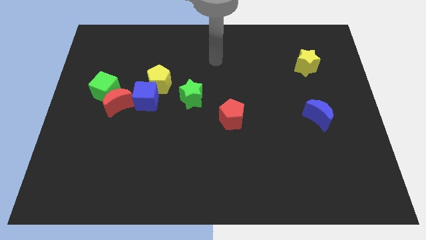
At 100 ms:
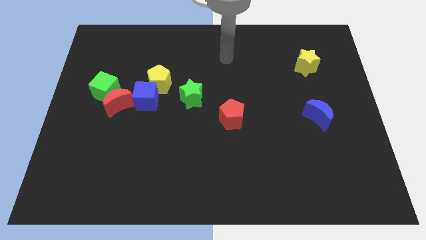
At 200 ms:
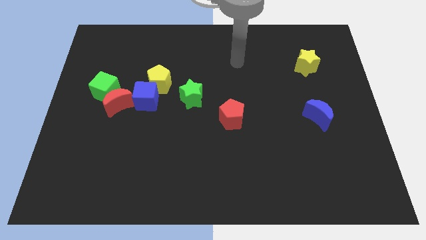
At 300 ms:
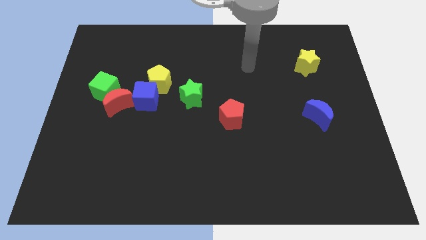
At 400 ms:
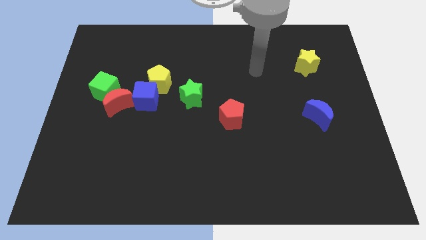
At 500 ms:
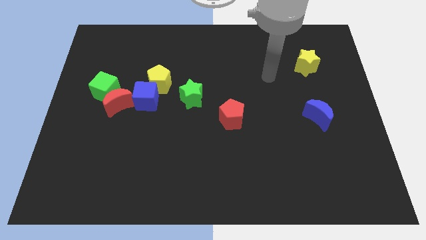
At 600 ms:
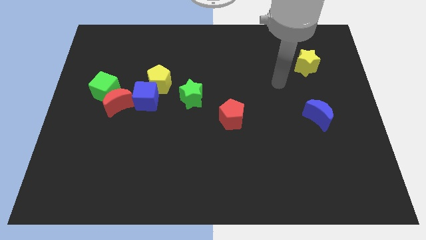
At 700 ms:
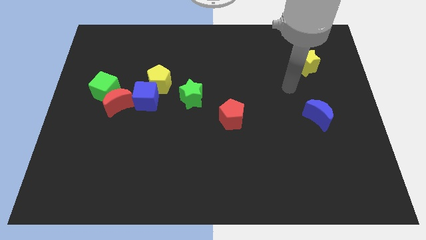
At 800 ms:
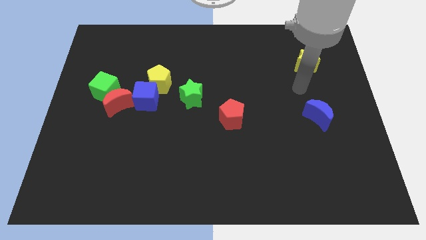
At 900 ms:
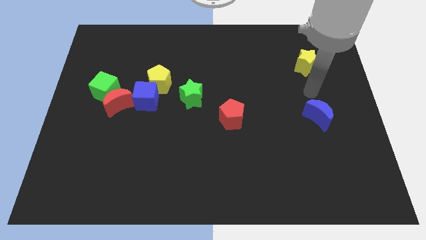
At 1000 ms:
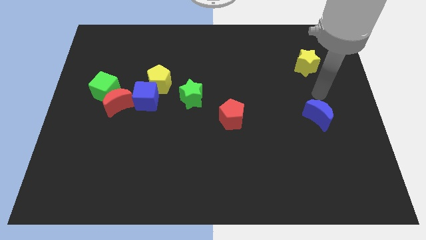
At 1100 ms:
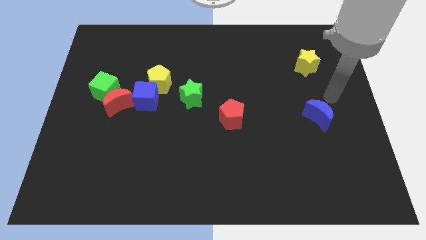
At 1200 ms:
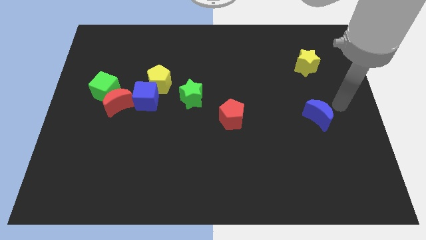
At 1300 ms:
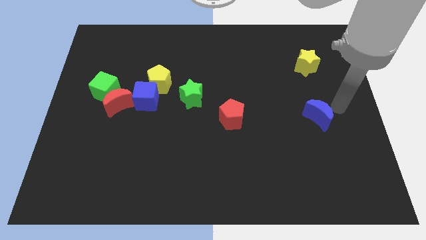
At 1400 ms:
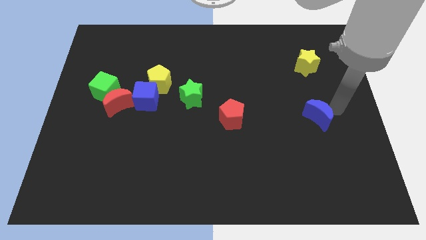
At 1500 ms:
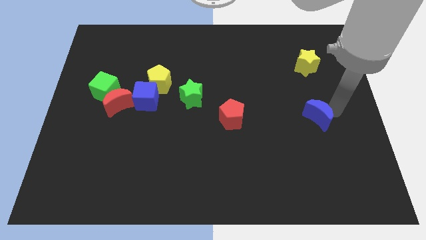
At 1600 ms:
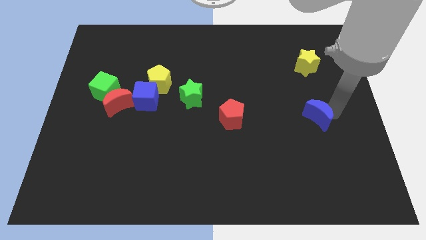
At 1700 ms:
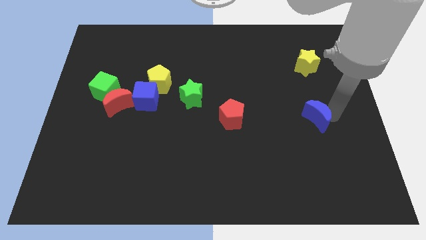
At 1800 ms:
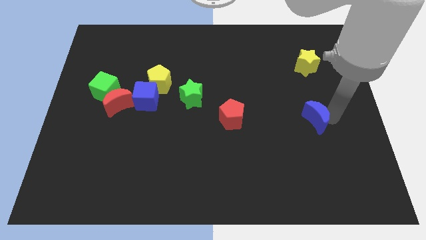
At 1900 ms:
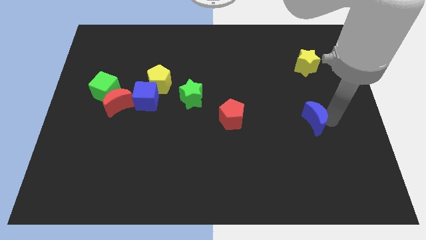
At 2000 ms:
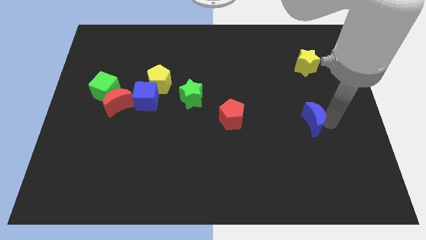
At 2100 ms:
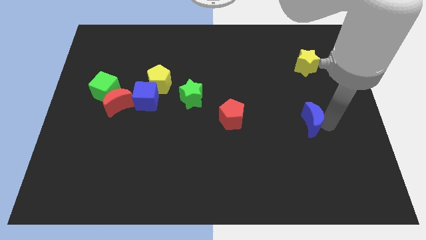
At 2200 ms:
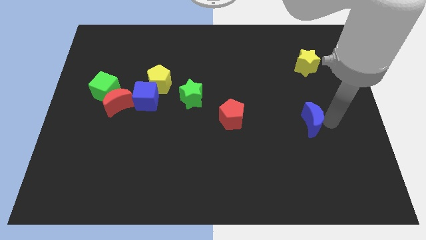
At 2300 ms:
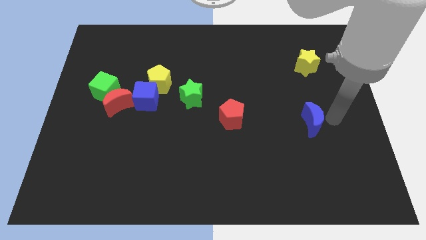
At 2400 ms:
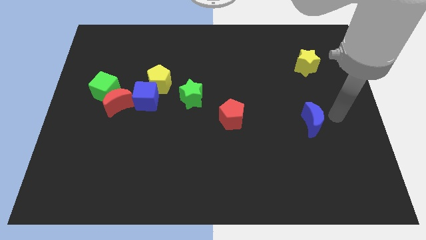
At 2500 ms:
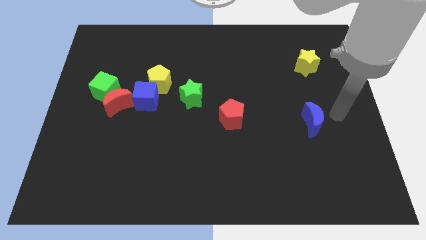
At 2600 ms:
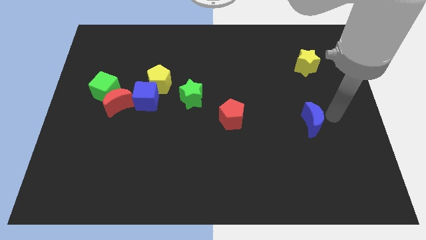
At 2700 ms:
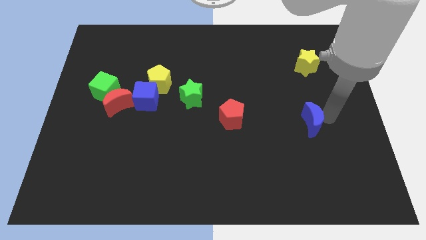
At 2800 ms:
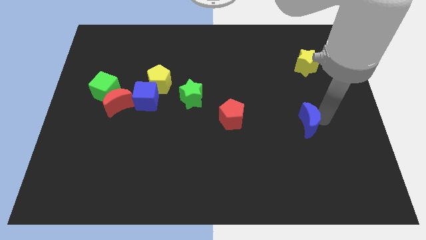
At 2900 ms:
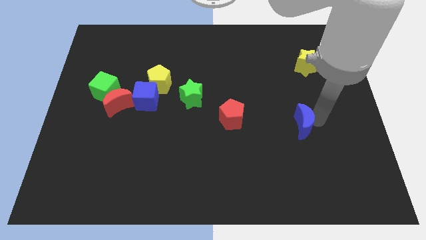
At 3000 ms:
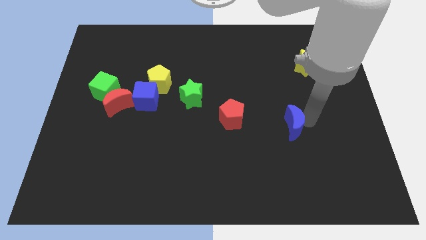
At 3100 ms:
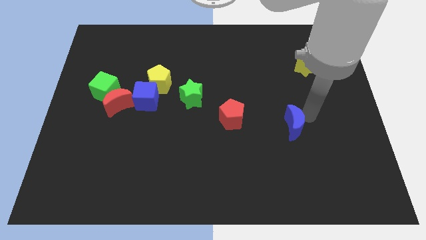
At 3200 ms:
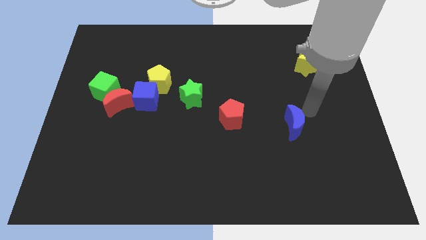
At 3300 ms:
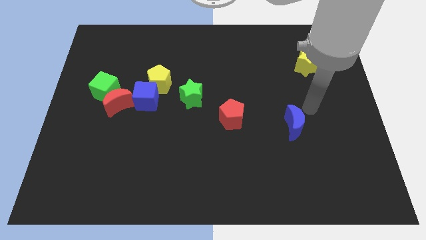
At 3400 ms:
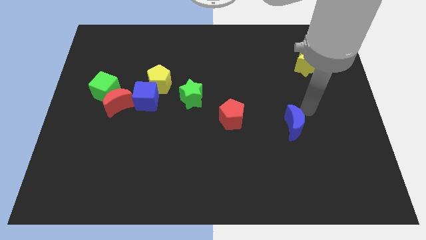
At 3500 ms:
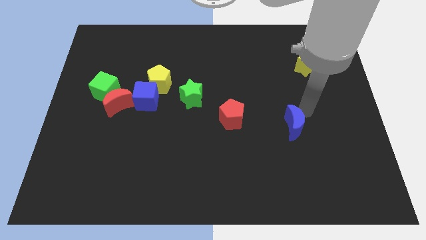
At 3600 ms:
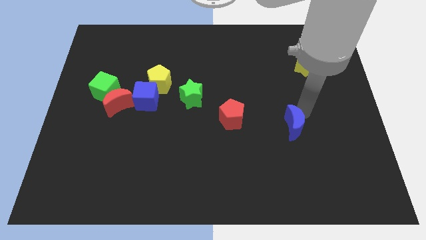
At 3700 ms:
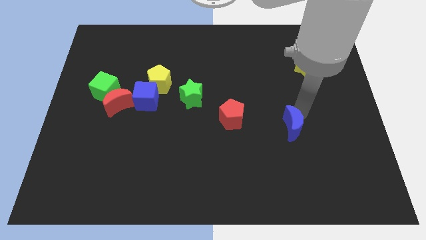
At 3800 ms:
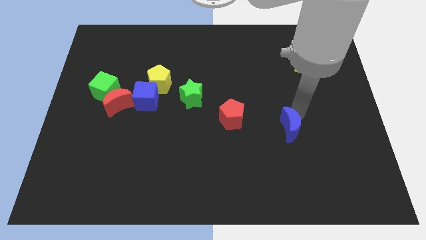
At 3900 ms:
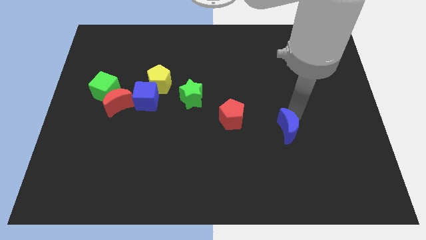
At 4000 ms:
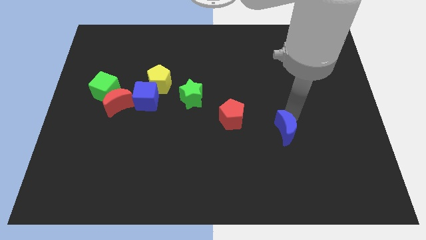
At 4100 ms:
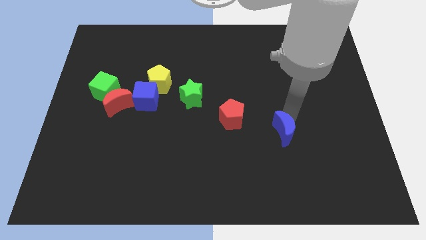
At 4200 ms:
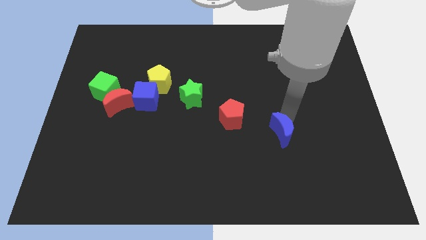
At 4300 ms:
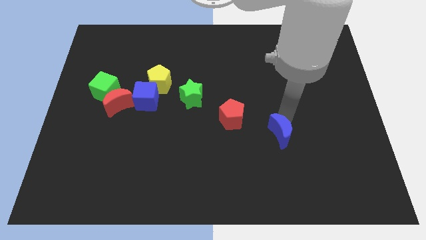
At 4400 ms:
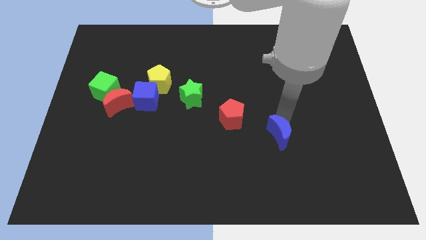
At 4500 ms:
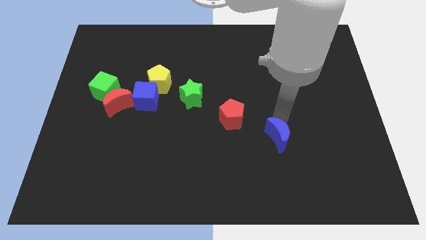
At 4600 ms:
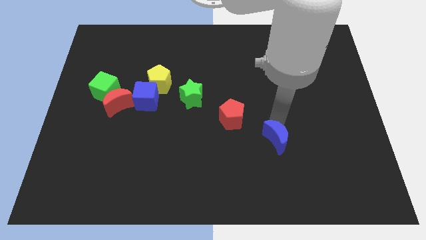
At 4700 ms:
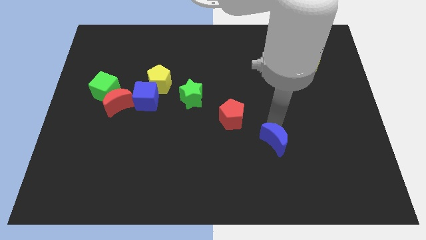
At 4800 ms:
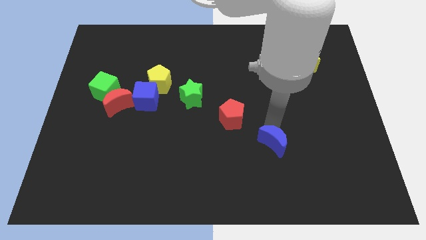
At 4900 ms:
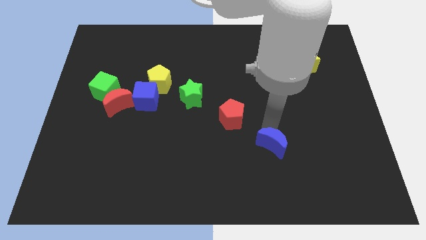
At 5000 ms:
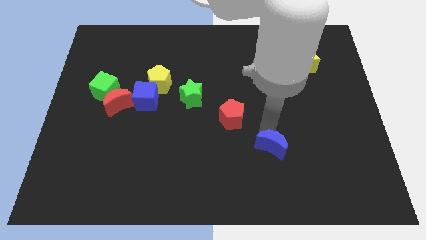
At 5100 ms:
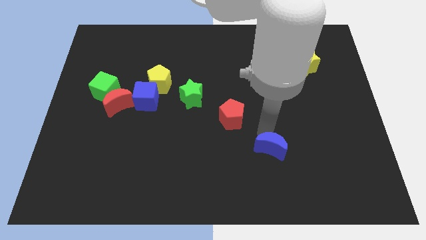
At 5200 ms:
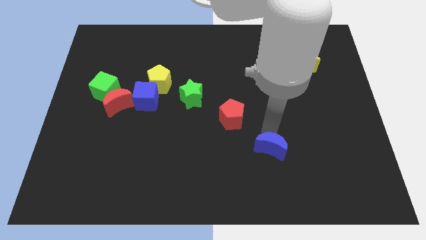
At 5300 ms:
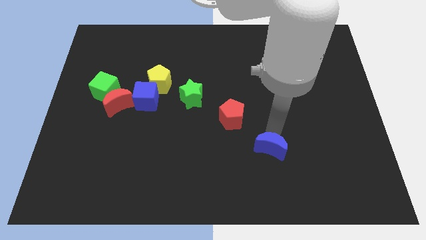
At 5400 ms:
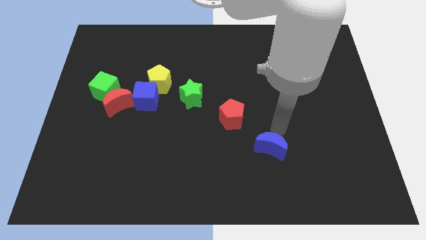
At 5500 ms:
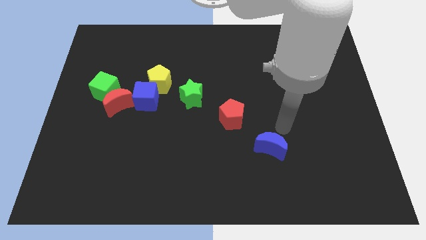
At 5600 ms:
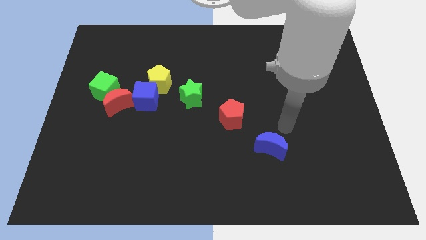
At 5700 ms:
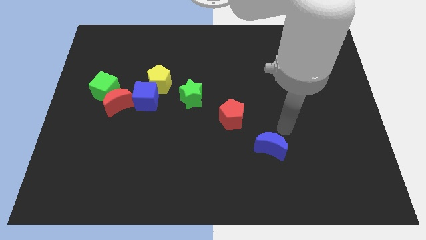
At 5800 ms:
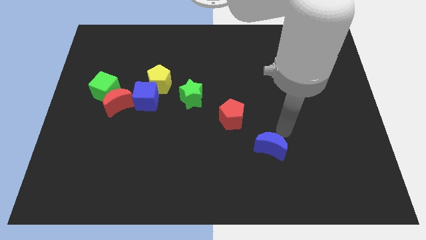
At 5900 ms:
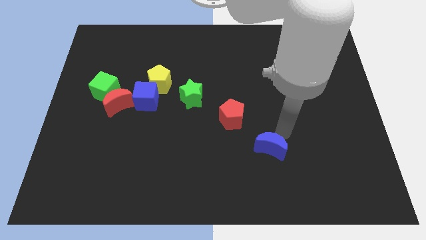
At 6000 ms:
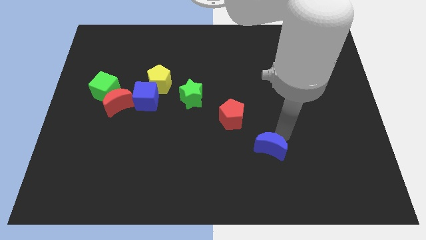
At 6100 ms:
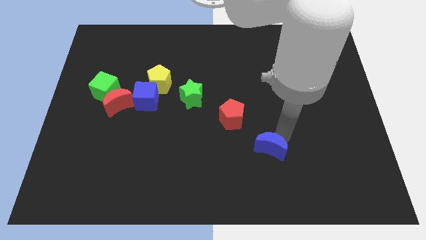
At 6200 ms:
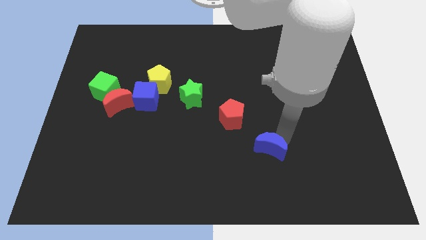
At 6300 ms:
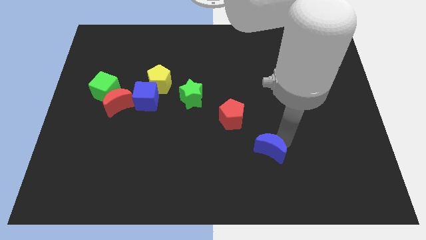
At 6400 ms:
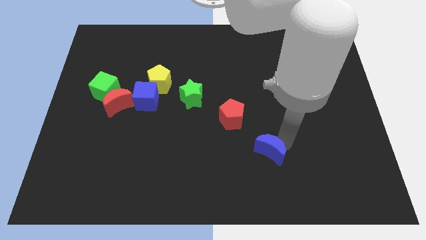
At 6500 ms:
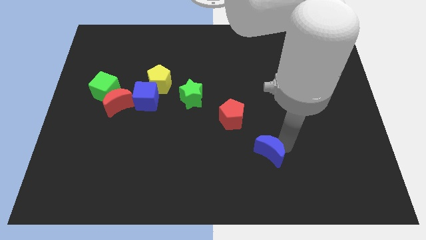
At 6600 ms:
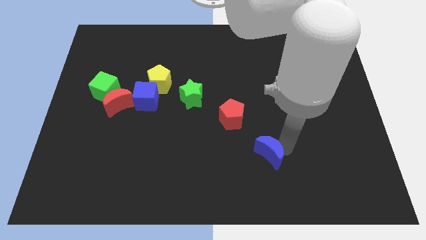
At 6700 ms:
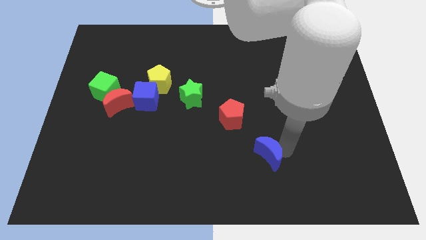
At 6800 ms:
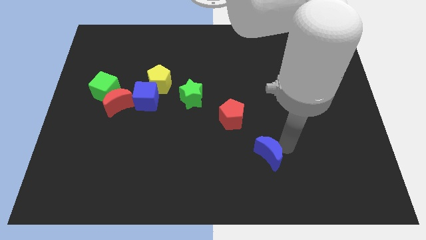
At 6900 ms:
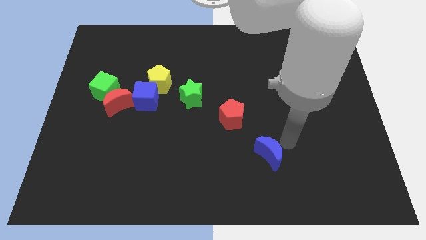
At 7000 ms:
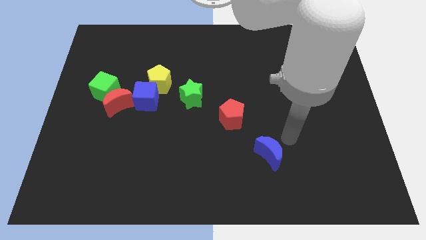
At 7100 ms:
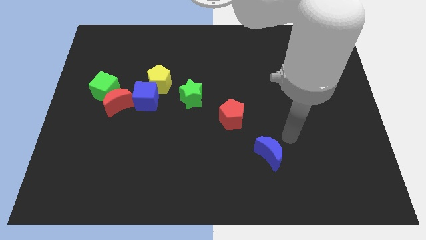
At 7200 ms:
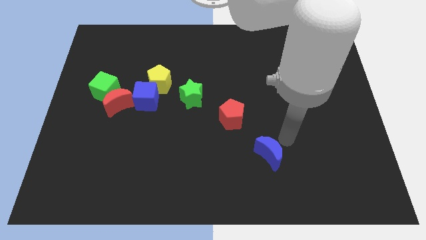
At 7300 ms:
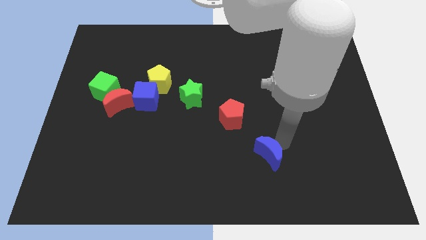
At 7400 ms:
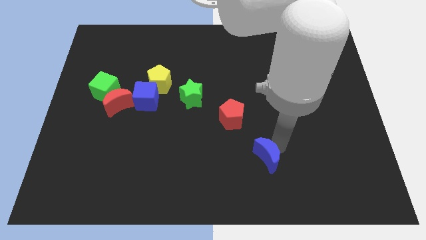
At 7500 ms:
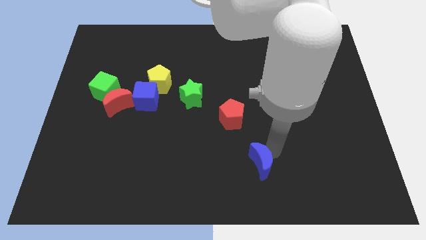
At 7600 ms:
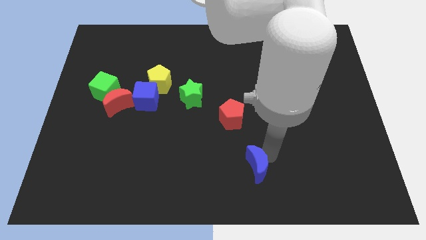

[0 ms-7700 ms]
slide the blue moon to the bottom
